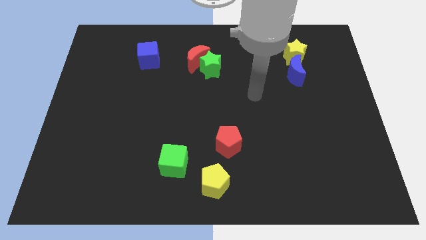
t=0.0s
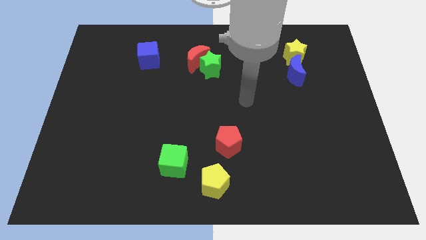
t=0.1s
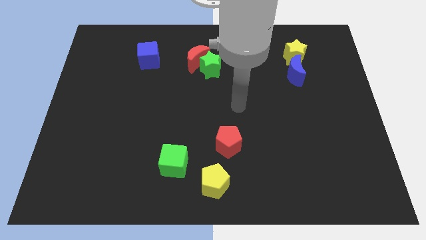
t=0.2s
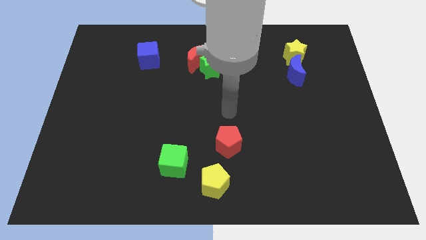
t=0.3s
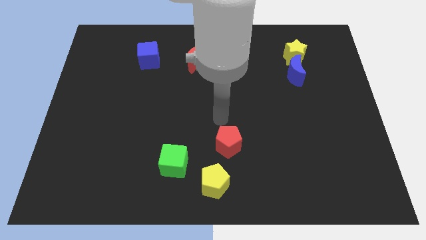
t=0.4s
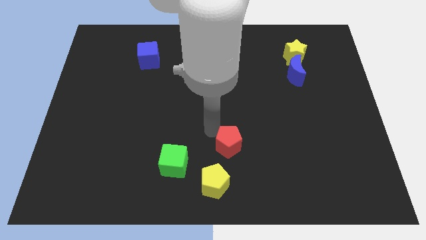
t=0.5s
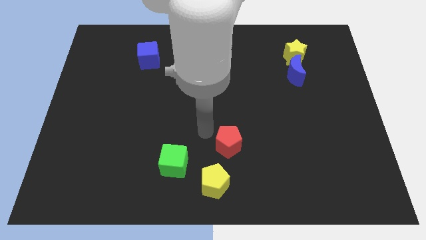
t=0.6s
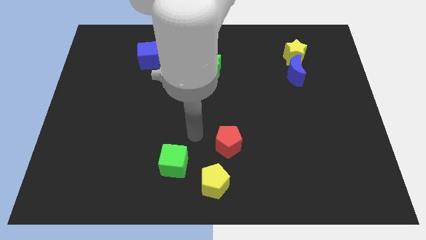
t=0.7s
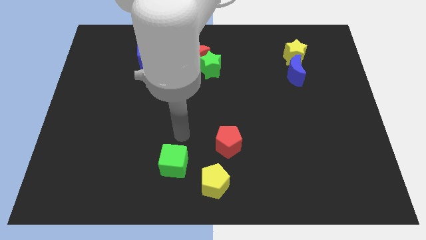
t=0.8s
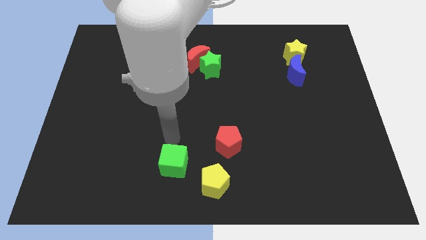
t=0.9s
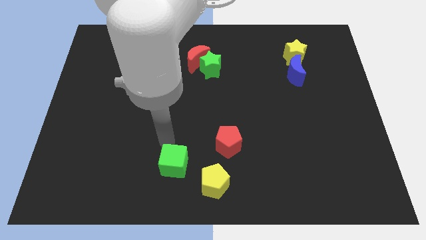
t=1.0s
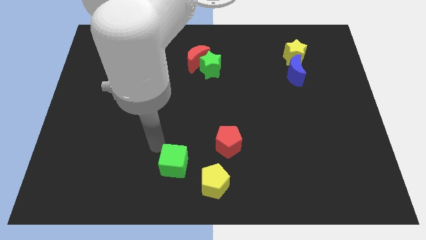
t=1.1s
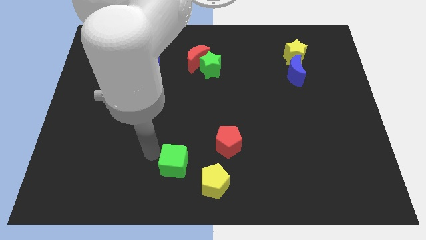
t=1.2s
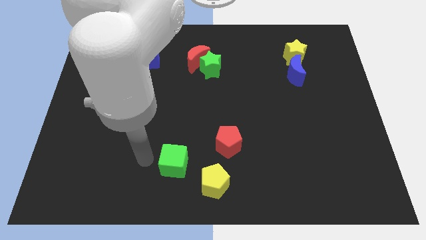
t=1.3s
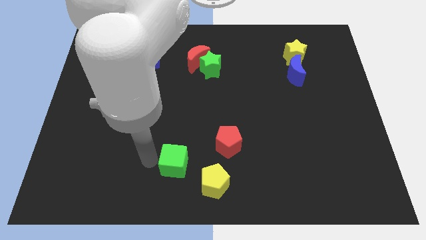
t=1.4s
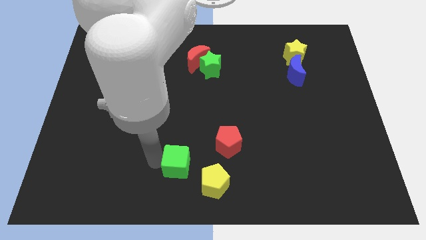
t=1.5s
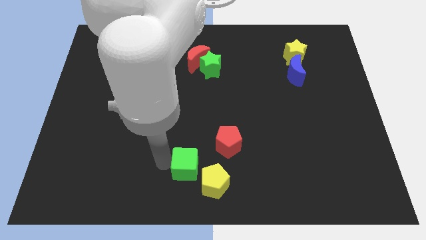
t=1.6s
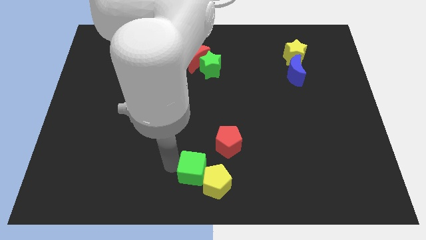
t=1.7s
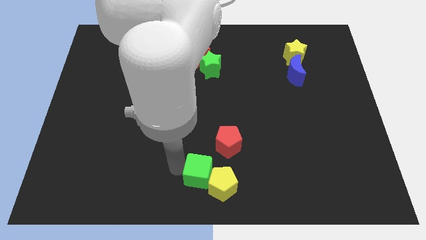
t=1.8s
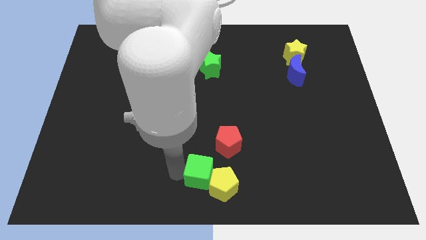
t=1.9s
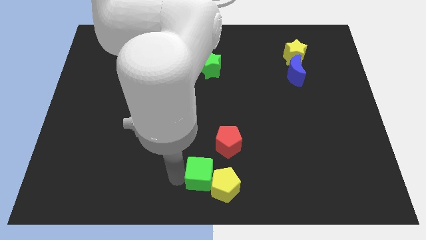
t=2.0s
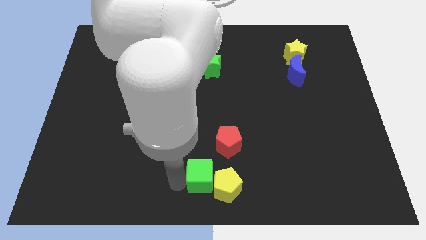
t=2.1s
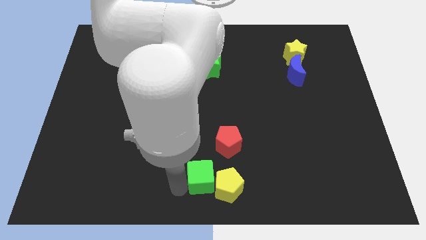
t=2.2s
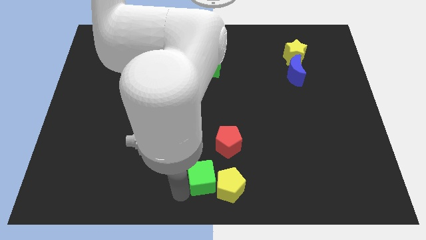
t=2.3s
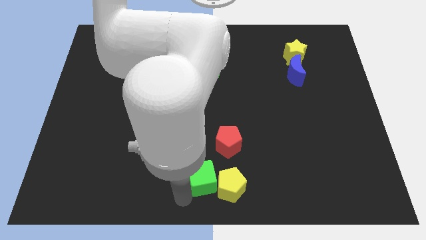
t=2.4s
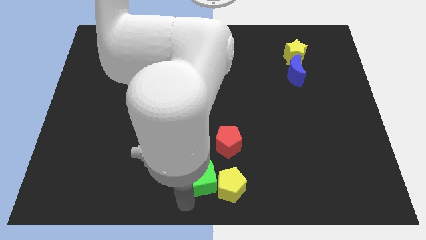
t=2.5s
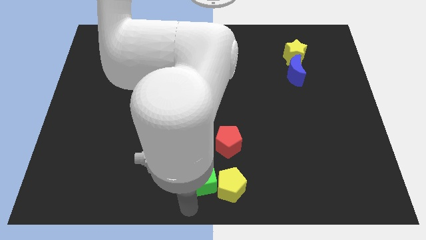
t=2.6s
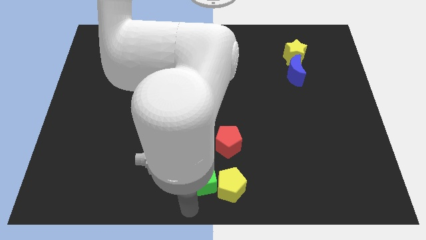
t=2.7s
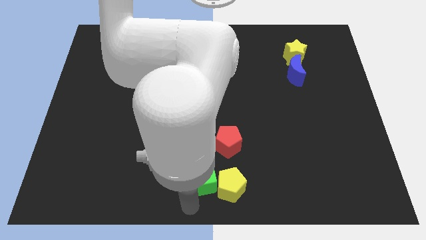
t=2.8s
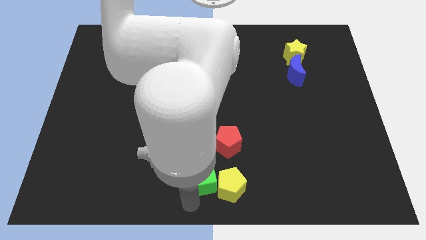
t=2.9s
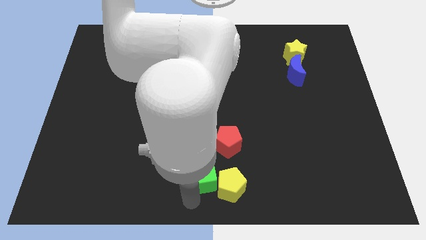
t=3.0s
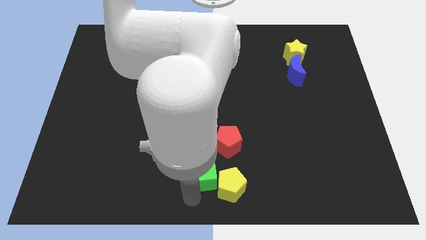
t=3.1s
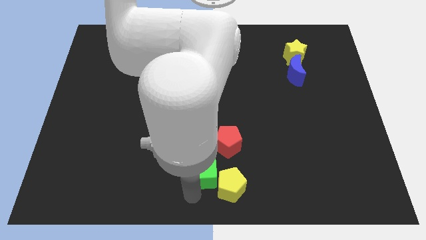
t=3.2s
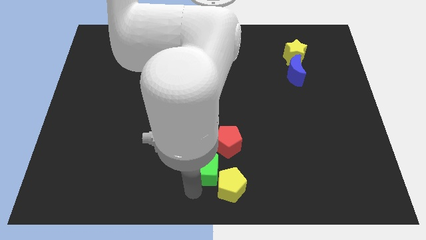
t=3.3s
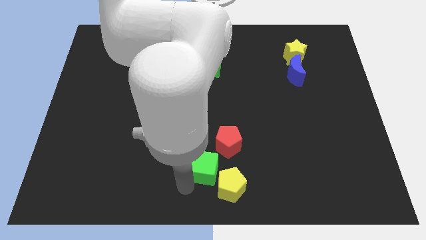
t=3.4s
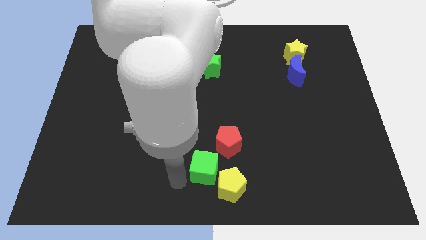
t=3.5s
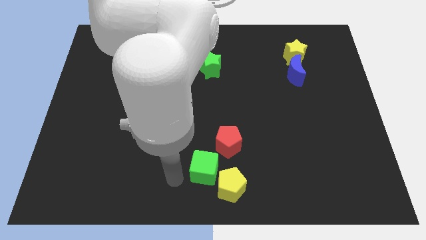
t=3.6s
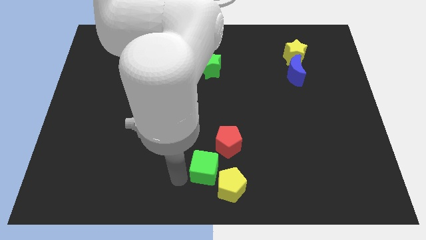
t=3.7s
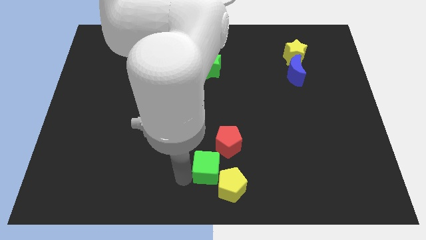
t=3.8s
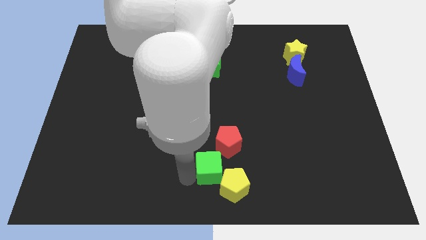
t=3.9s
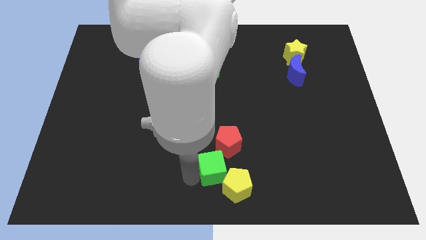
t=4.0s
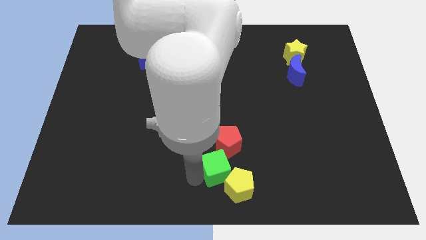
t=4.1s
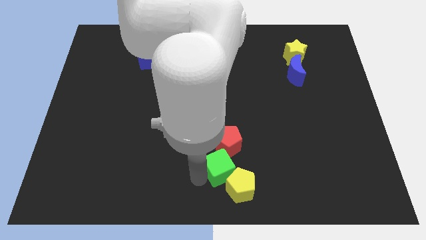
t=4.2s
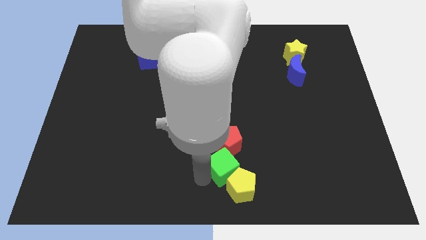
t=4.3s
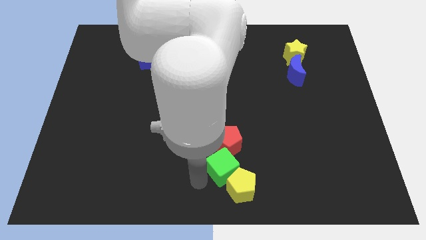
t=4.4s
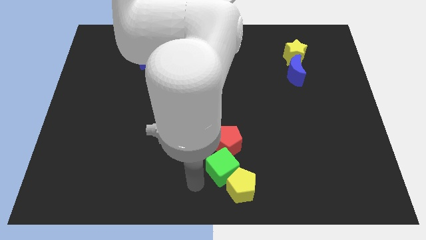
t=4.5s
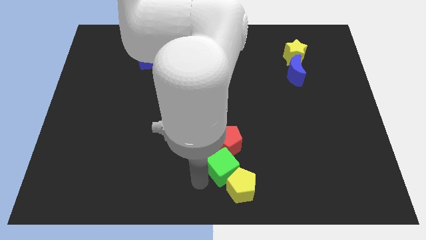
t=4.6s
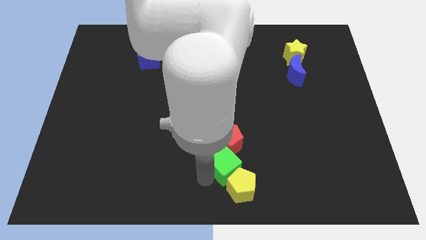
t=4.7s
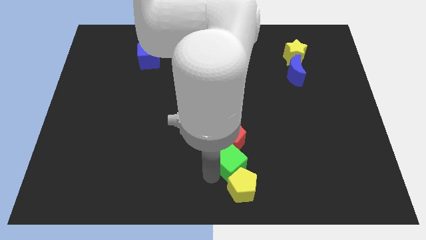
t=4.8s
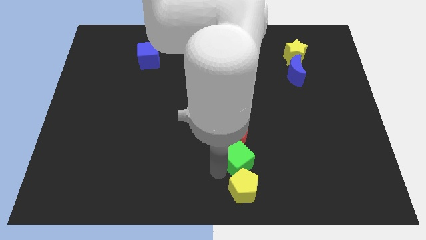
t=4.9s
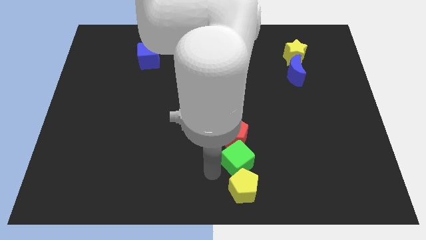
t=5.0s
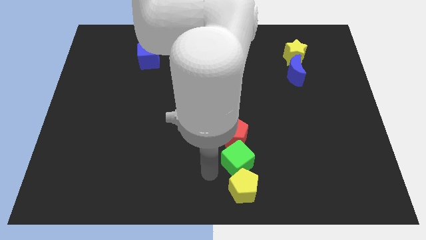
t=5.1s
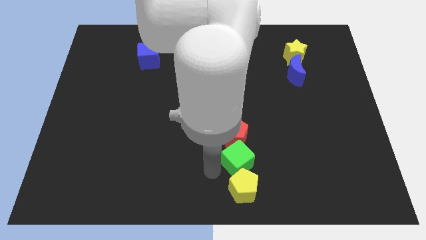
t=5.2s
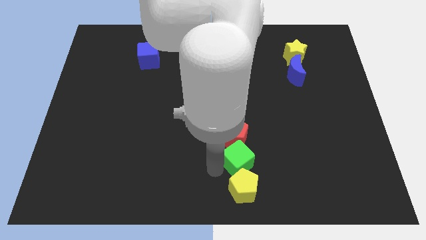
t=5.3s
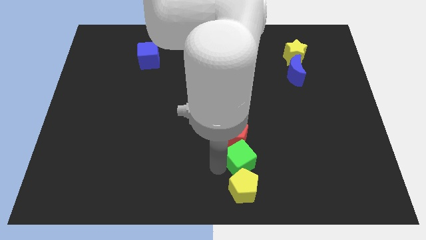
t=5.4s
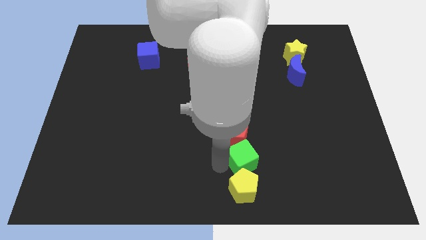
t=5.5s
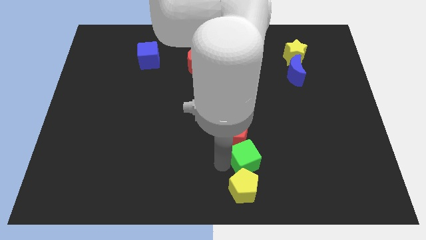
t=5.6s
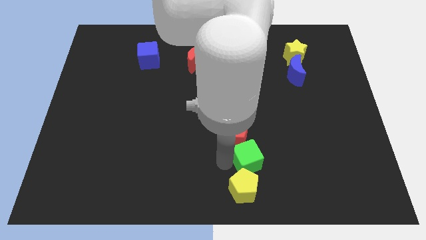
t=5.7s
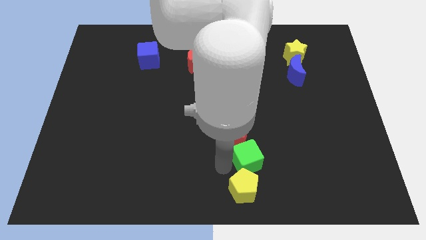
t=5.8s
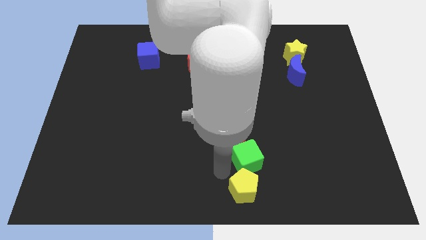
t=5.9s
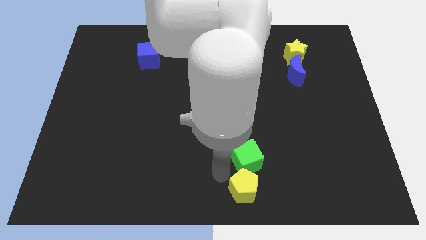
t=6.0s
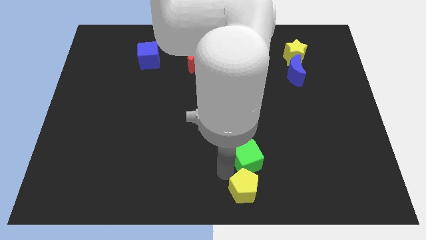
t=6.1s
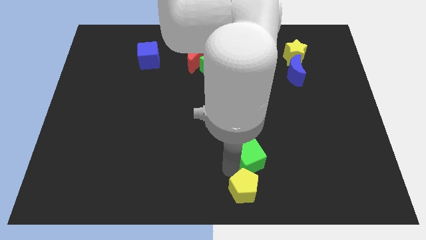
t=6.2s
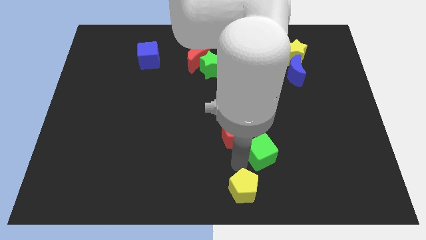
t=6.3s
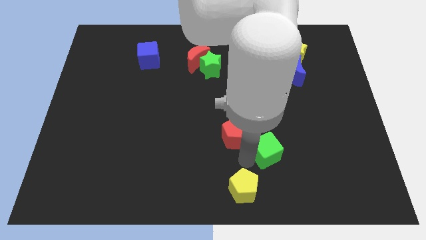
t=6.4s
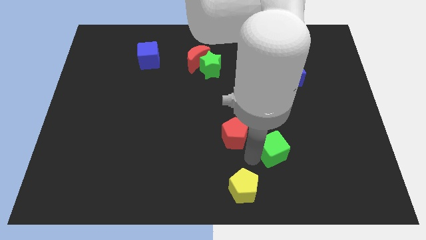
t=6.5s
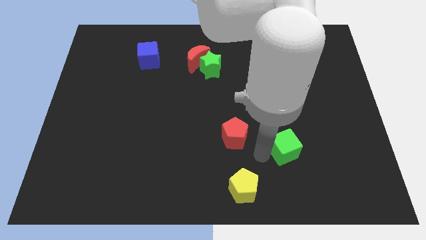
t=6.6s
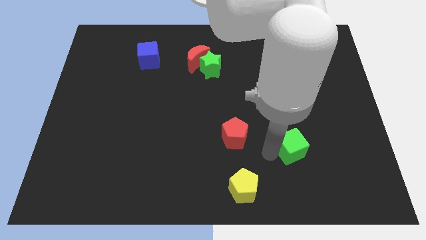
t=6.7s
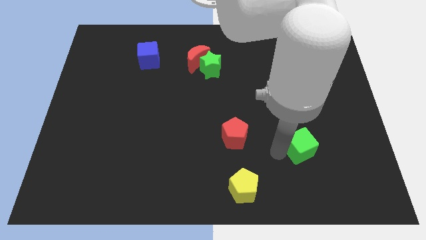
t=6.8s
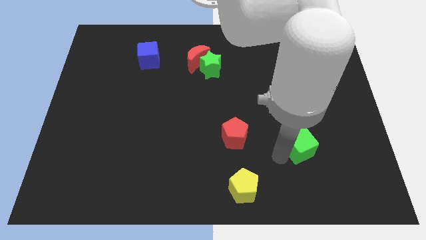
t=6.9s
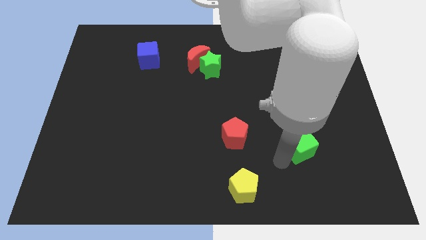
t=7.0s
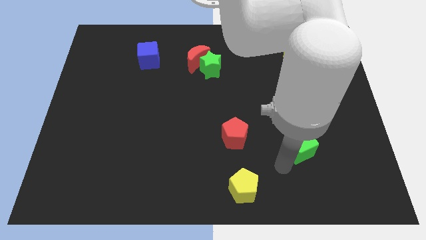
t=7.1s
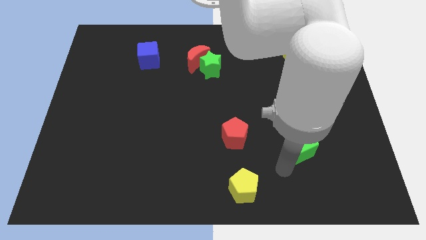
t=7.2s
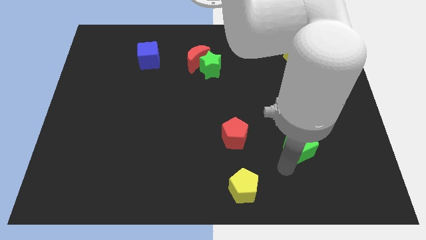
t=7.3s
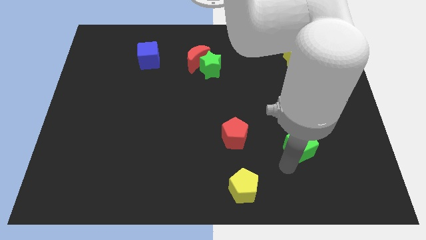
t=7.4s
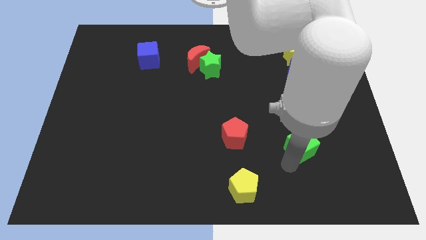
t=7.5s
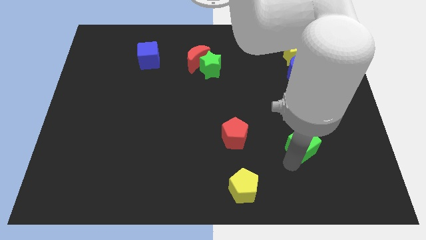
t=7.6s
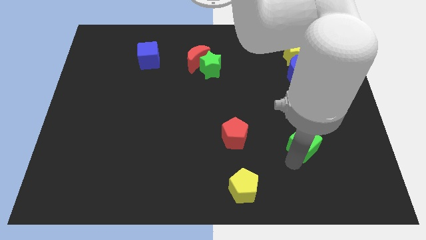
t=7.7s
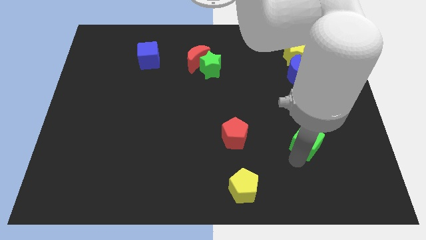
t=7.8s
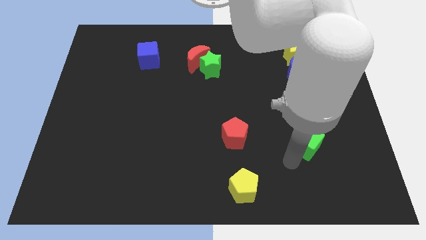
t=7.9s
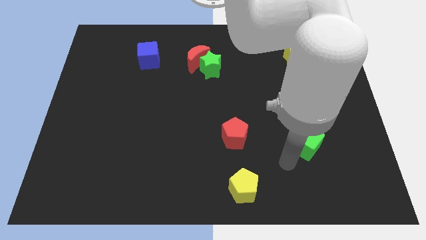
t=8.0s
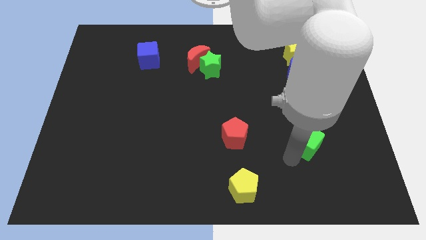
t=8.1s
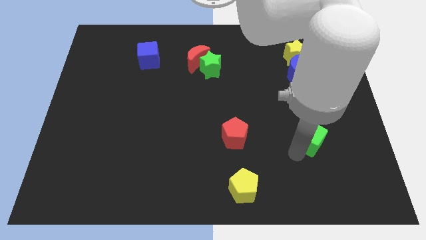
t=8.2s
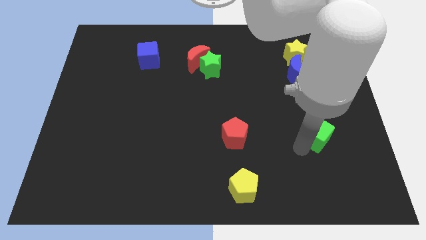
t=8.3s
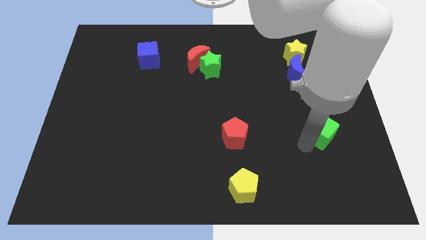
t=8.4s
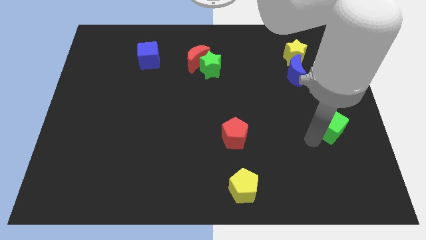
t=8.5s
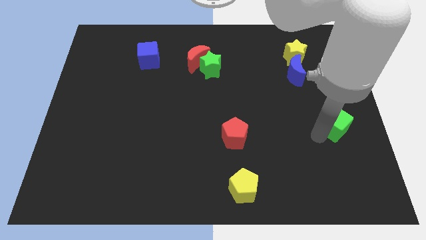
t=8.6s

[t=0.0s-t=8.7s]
move the green cube to the center right
